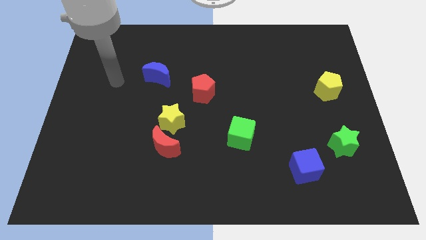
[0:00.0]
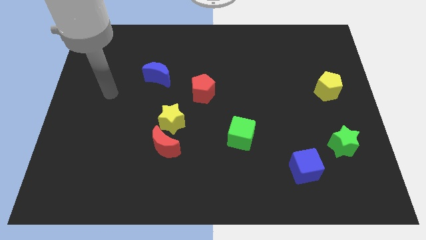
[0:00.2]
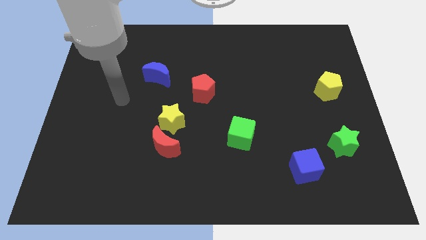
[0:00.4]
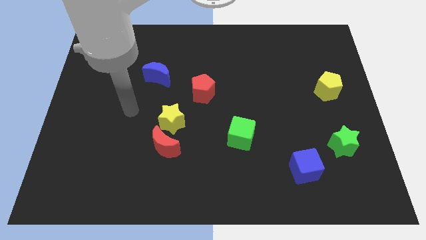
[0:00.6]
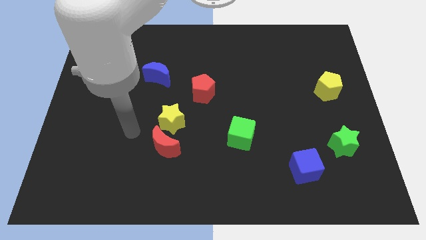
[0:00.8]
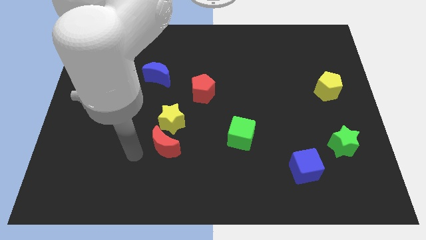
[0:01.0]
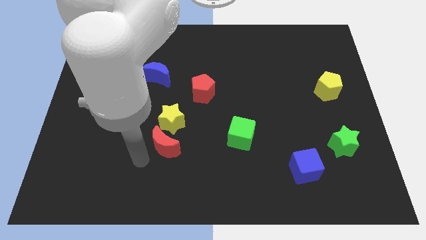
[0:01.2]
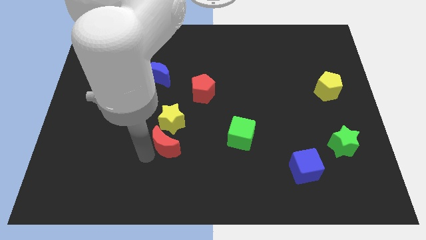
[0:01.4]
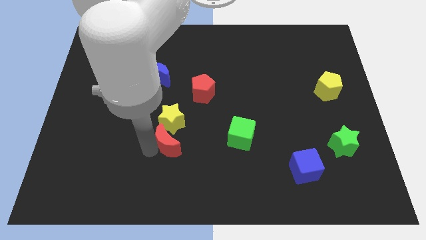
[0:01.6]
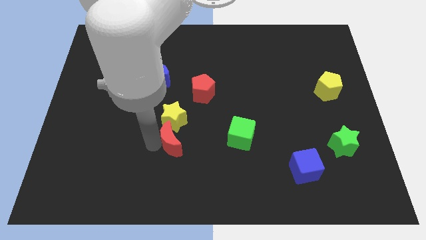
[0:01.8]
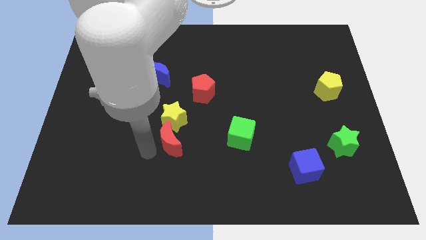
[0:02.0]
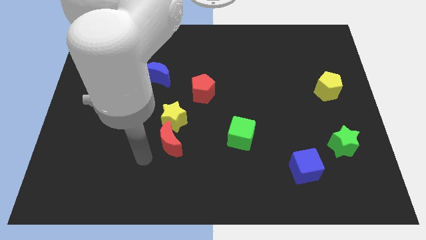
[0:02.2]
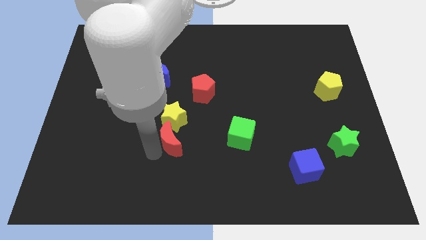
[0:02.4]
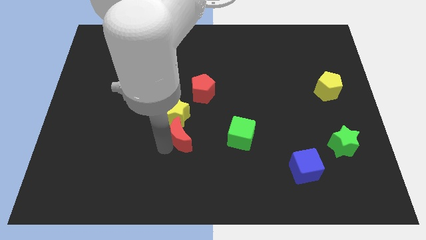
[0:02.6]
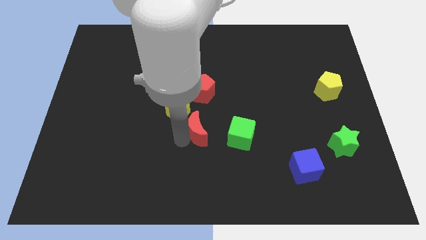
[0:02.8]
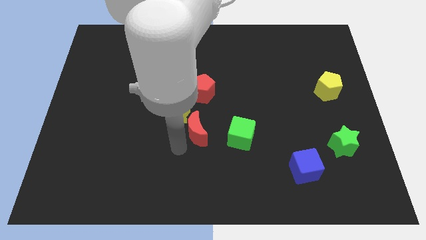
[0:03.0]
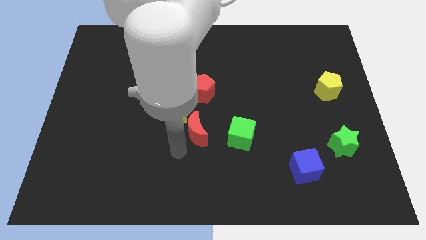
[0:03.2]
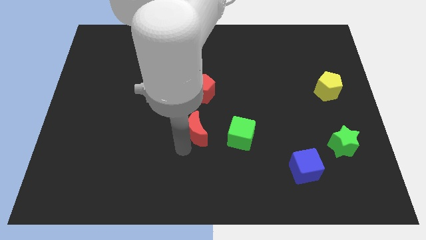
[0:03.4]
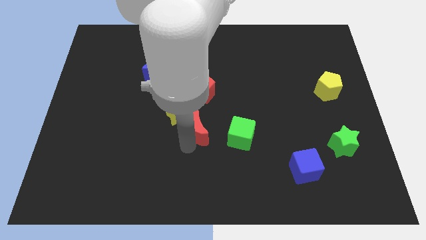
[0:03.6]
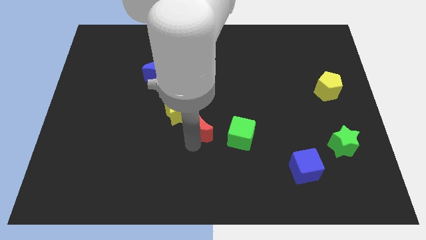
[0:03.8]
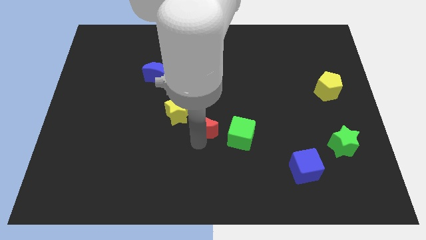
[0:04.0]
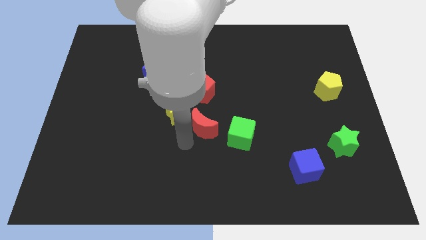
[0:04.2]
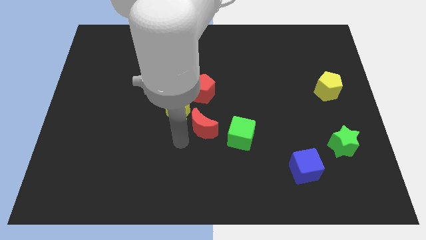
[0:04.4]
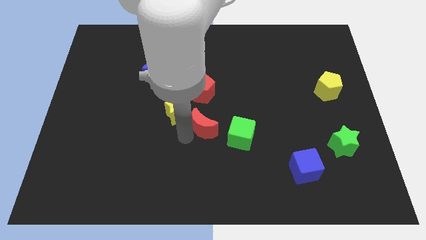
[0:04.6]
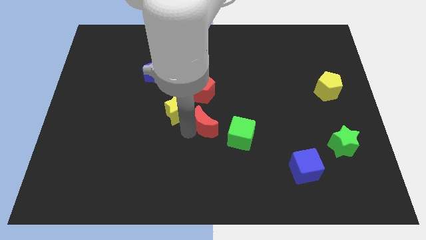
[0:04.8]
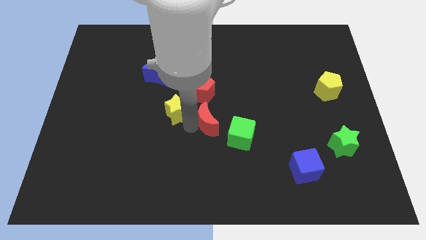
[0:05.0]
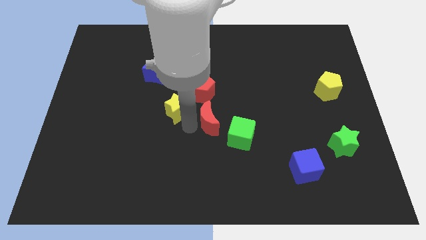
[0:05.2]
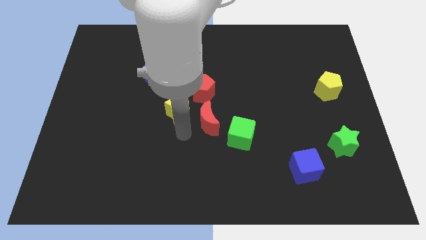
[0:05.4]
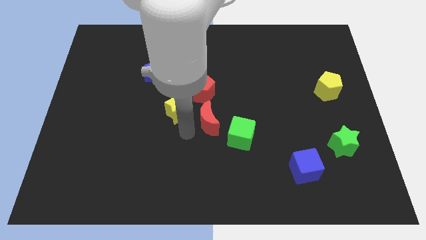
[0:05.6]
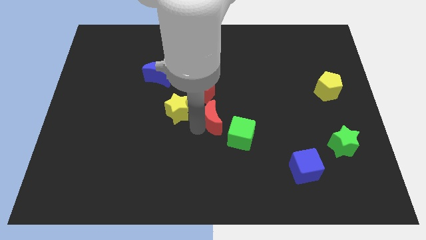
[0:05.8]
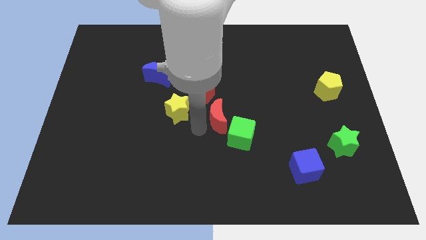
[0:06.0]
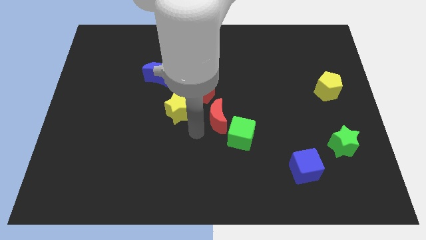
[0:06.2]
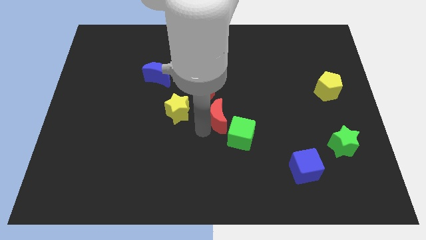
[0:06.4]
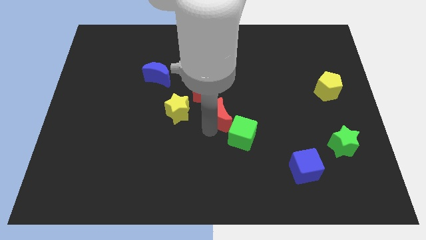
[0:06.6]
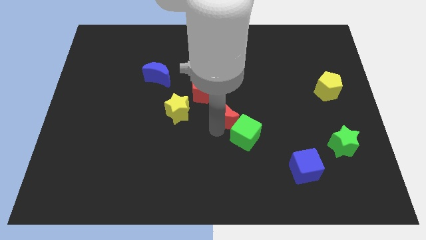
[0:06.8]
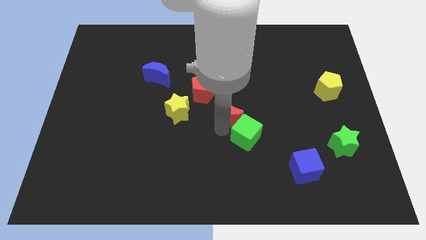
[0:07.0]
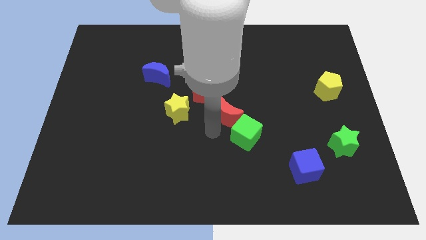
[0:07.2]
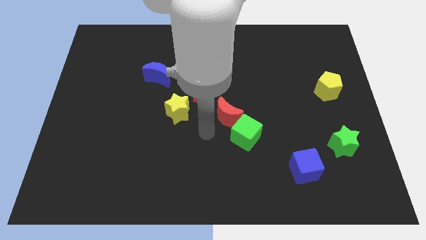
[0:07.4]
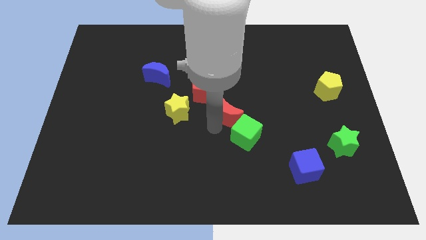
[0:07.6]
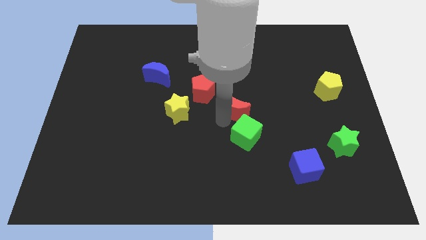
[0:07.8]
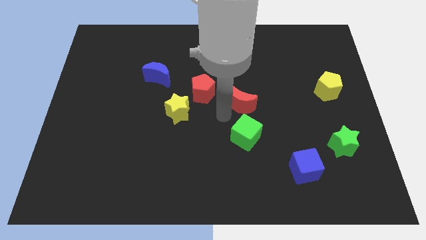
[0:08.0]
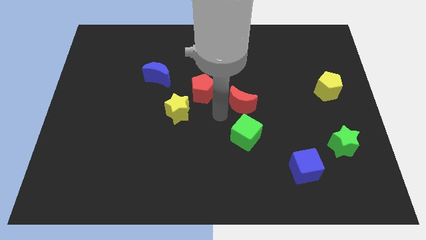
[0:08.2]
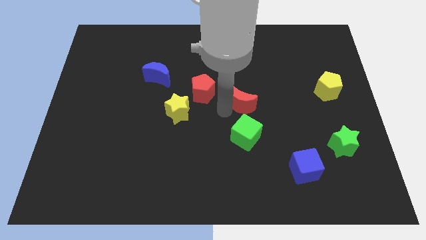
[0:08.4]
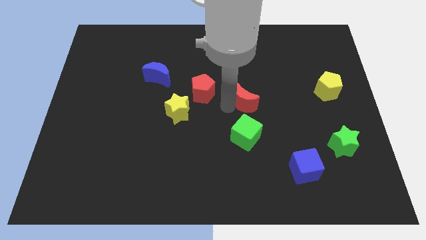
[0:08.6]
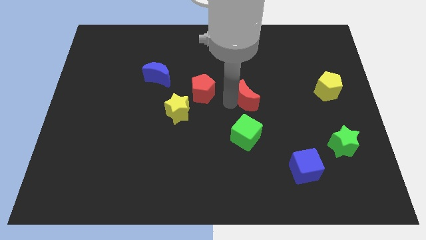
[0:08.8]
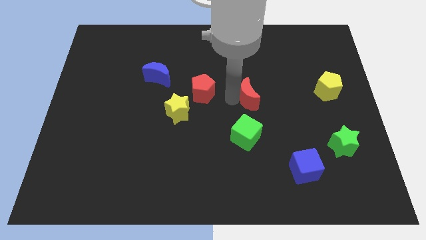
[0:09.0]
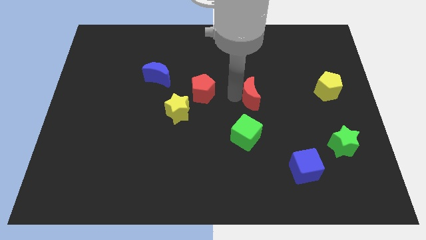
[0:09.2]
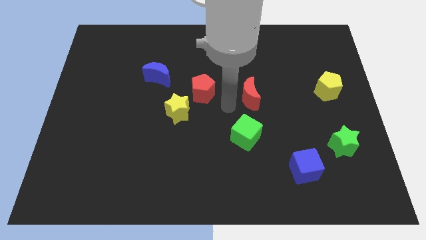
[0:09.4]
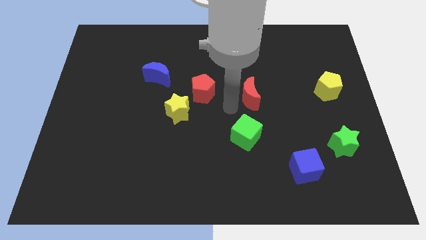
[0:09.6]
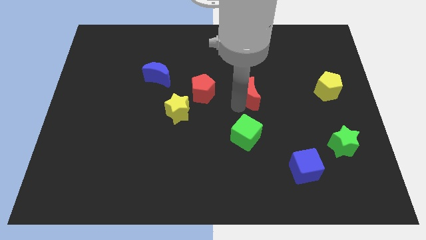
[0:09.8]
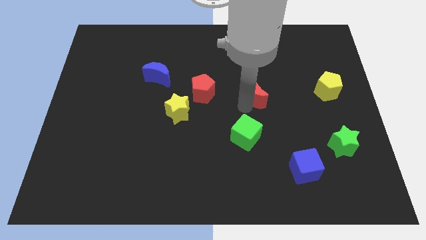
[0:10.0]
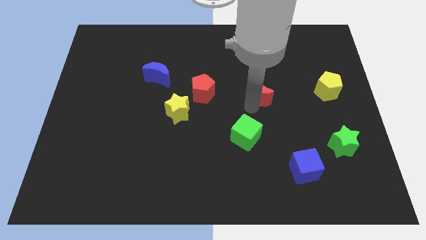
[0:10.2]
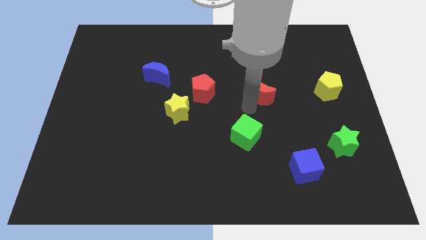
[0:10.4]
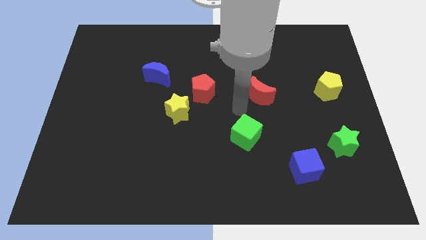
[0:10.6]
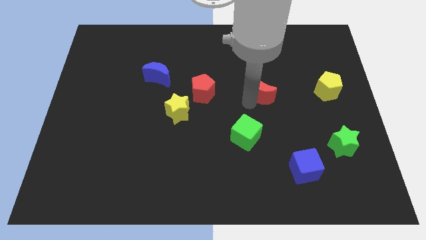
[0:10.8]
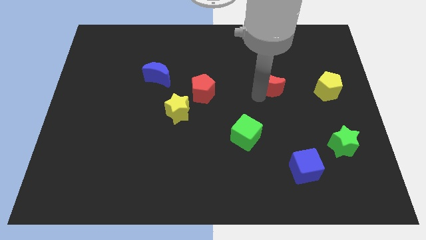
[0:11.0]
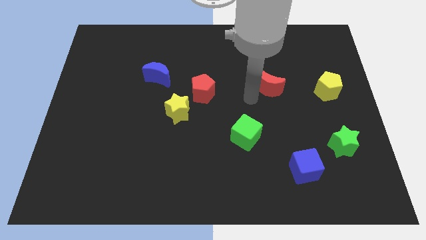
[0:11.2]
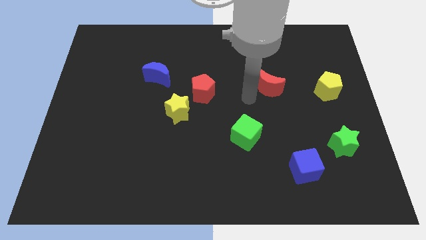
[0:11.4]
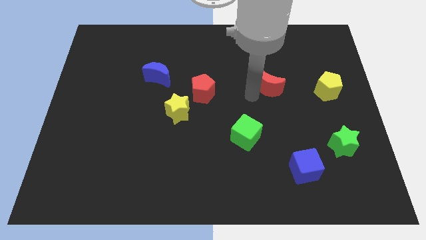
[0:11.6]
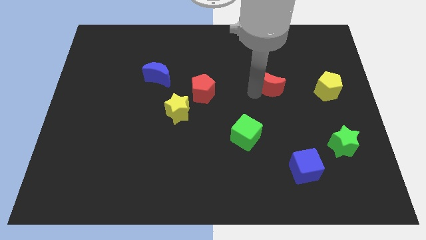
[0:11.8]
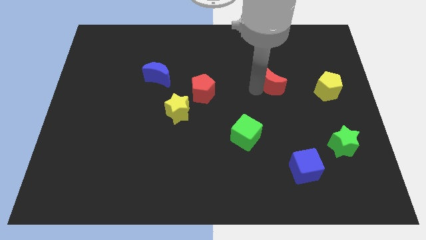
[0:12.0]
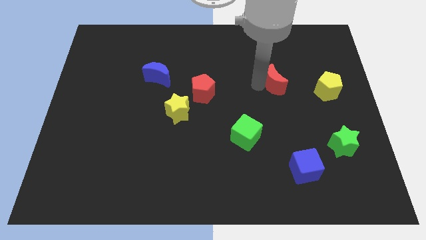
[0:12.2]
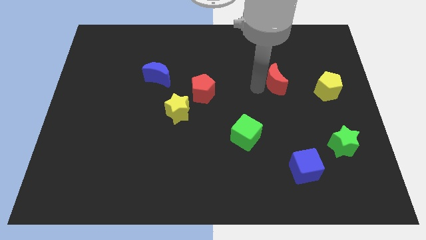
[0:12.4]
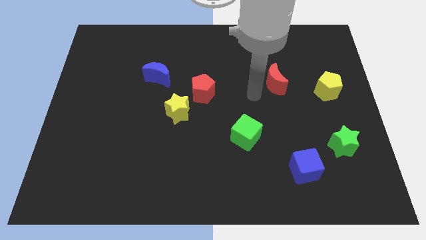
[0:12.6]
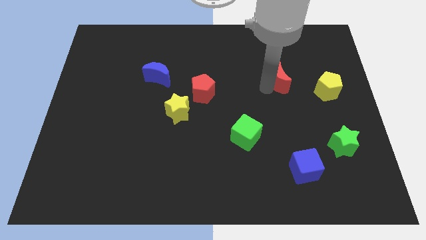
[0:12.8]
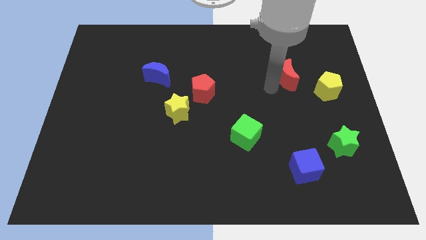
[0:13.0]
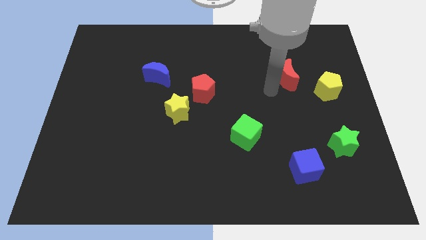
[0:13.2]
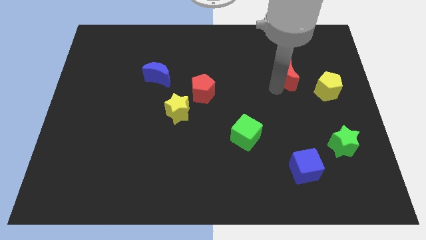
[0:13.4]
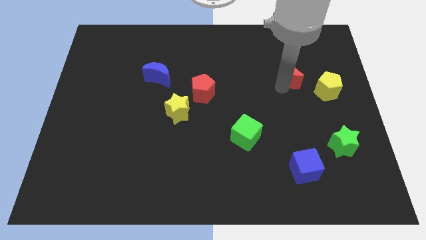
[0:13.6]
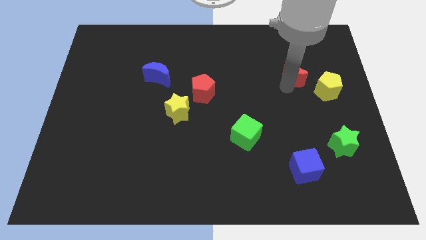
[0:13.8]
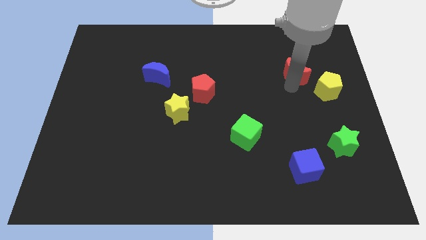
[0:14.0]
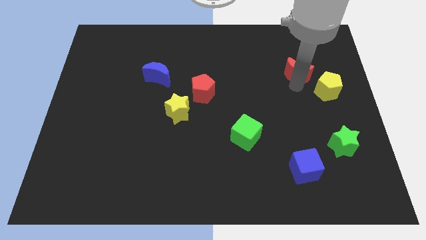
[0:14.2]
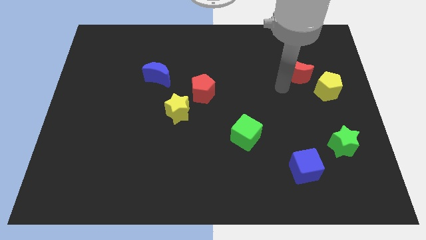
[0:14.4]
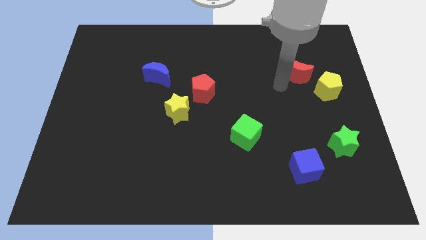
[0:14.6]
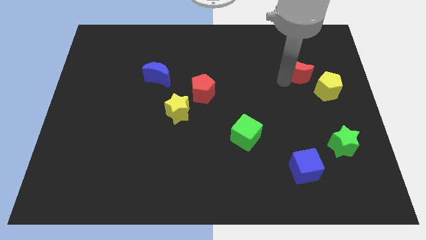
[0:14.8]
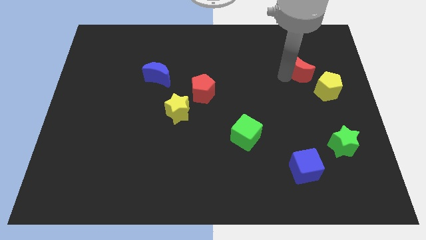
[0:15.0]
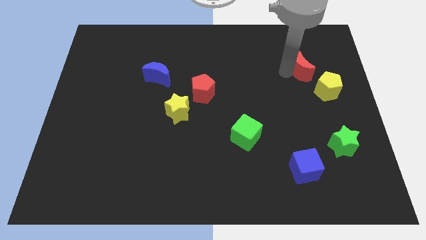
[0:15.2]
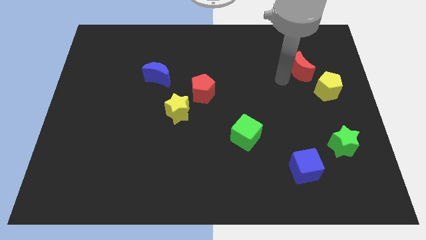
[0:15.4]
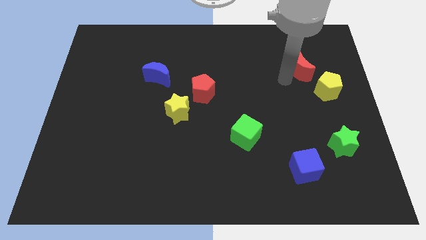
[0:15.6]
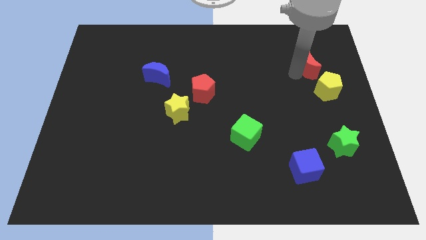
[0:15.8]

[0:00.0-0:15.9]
move the red moon above the yellow pentagon
